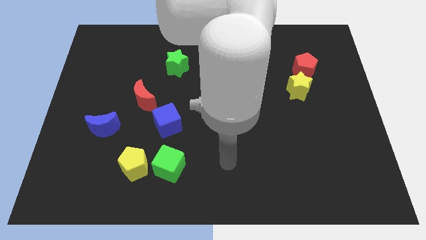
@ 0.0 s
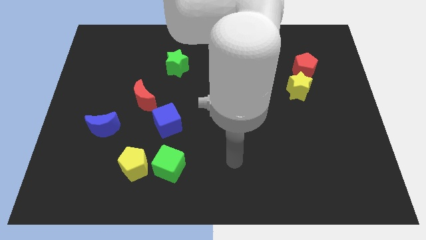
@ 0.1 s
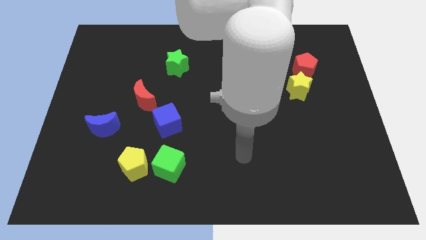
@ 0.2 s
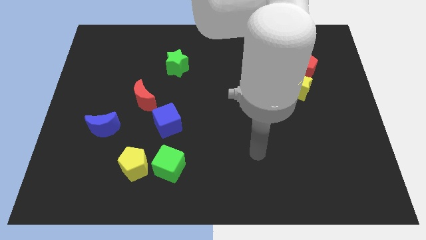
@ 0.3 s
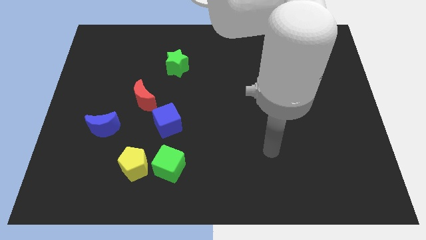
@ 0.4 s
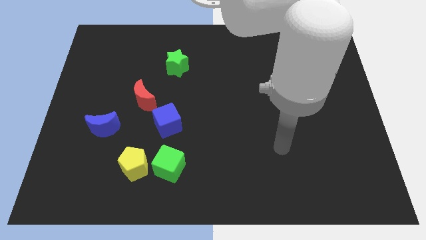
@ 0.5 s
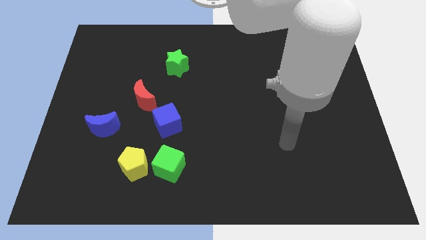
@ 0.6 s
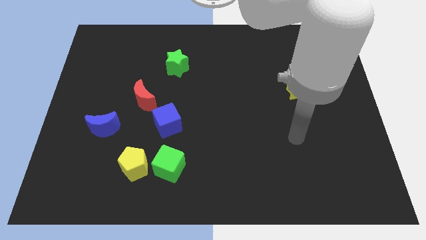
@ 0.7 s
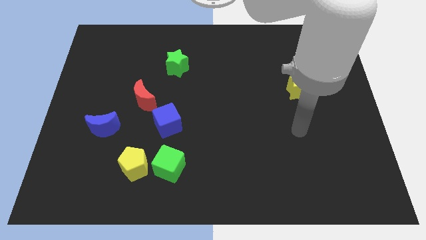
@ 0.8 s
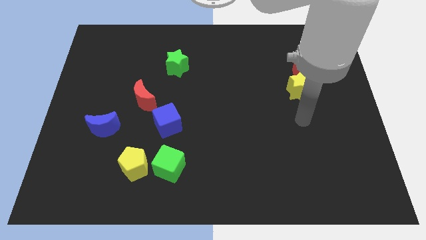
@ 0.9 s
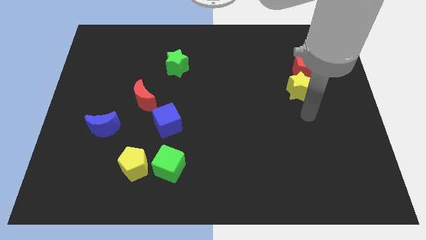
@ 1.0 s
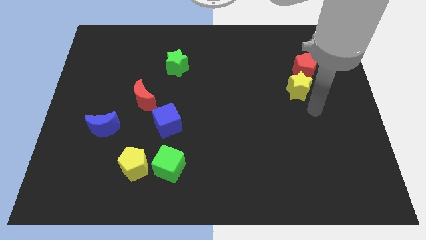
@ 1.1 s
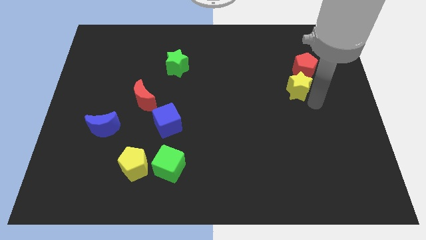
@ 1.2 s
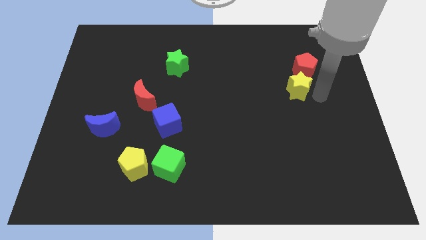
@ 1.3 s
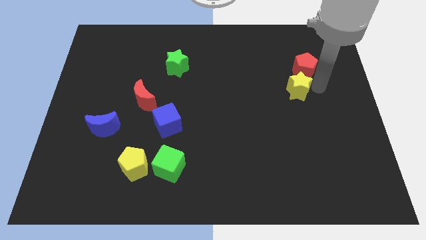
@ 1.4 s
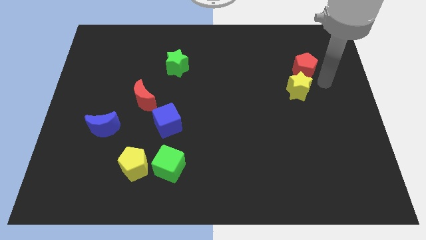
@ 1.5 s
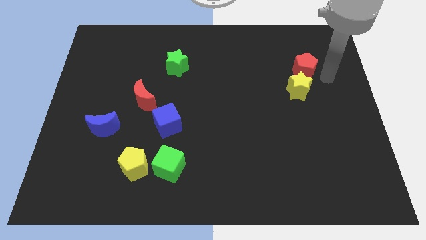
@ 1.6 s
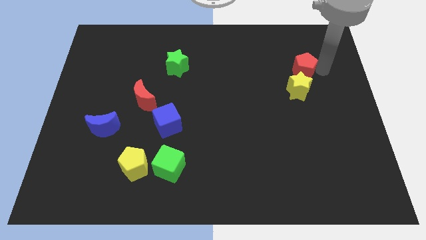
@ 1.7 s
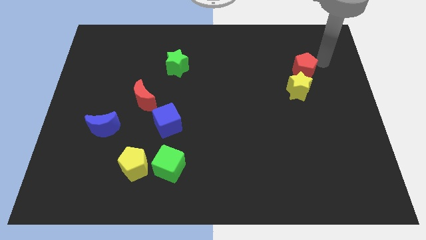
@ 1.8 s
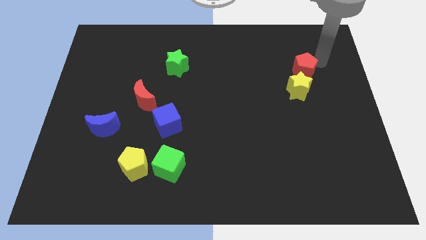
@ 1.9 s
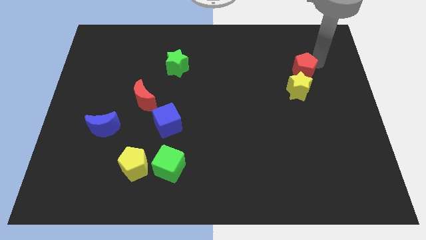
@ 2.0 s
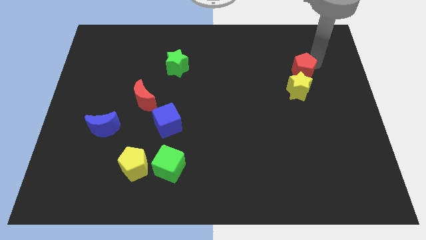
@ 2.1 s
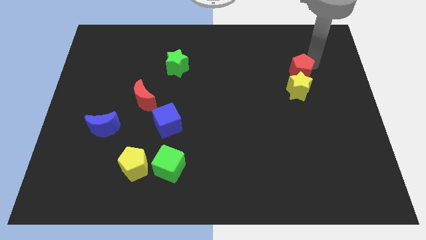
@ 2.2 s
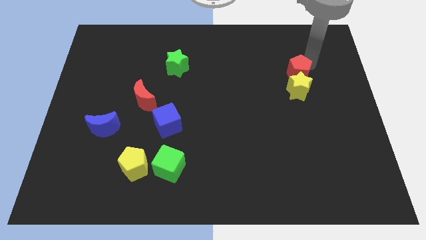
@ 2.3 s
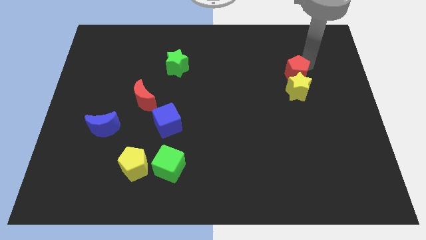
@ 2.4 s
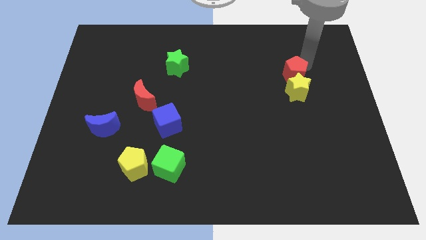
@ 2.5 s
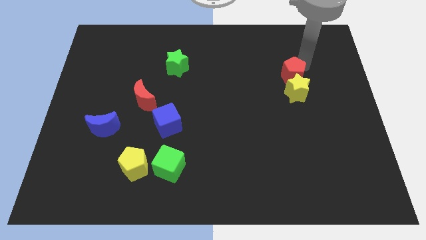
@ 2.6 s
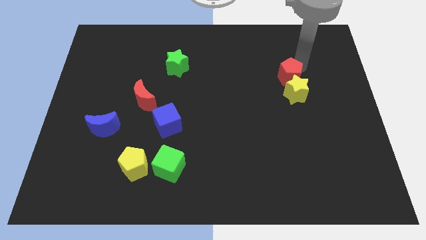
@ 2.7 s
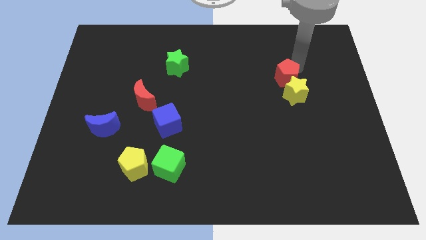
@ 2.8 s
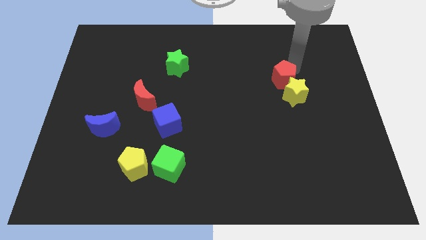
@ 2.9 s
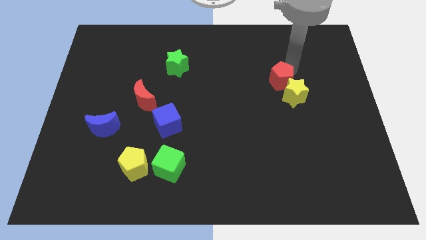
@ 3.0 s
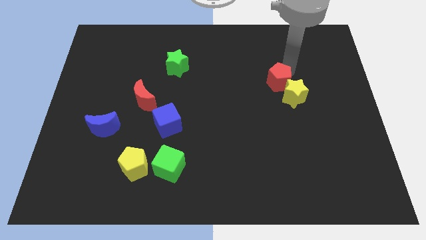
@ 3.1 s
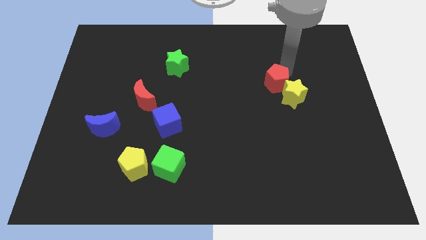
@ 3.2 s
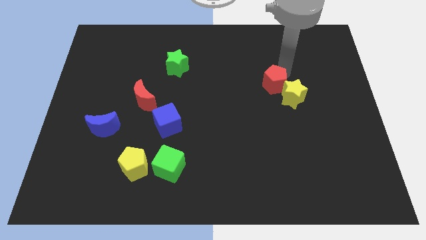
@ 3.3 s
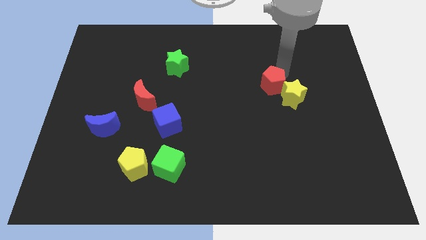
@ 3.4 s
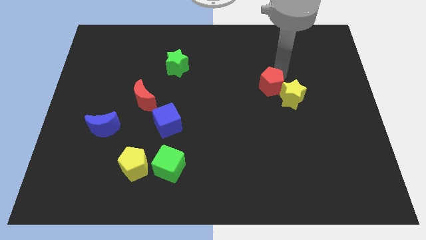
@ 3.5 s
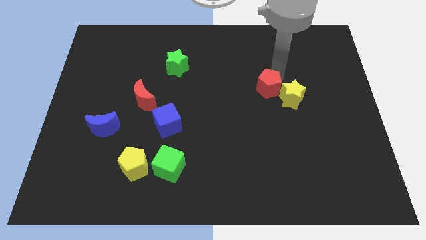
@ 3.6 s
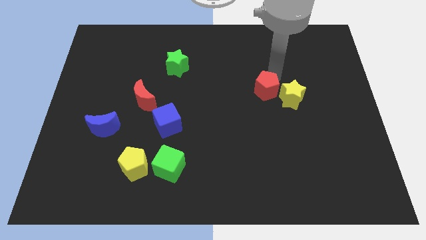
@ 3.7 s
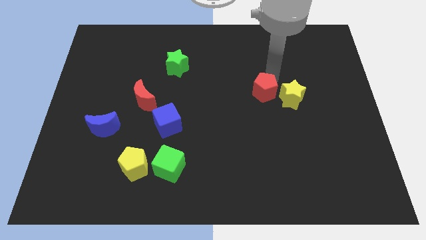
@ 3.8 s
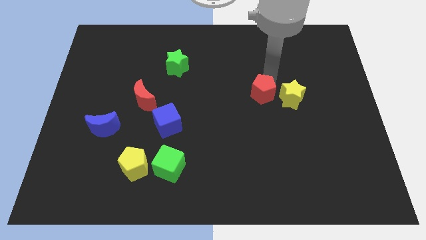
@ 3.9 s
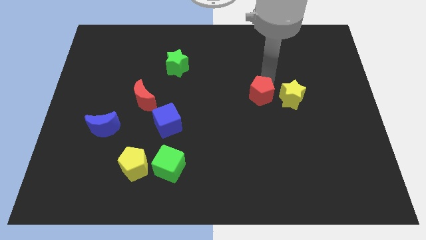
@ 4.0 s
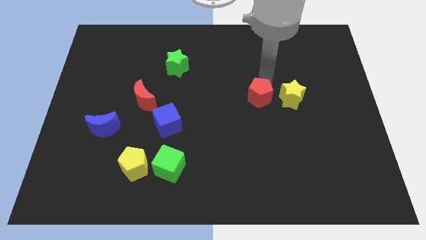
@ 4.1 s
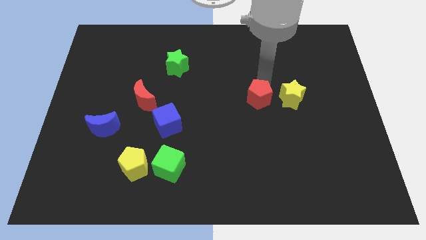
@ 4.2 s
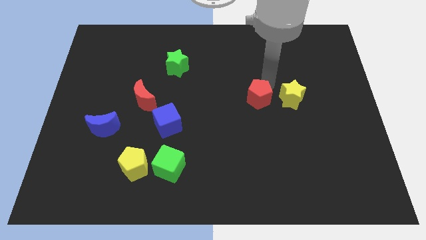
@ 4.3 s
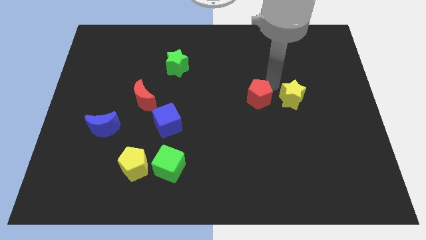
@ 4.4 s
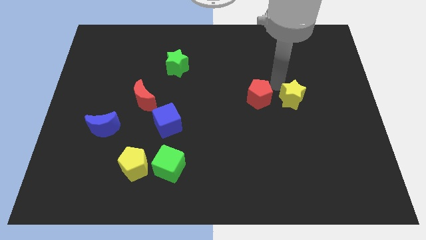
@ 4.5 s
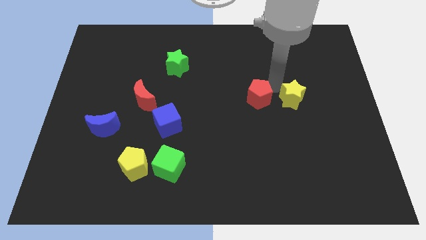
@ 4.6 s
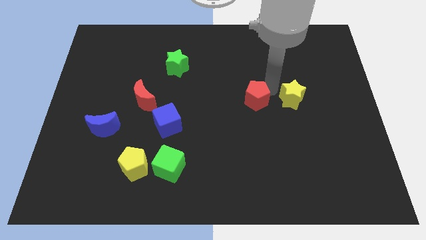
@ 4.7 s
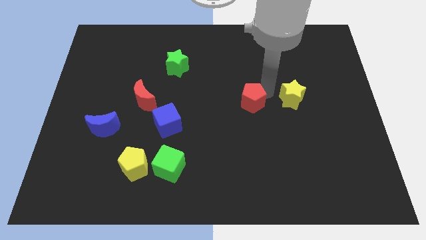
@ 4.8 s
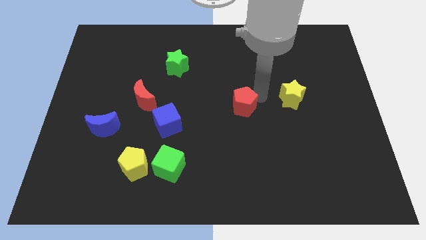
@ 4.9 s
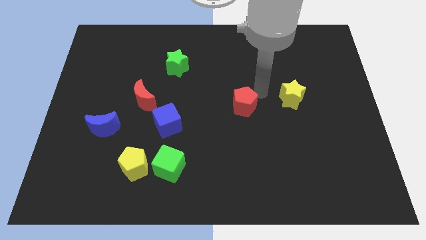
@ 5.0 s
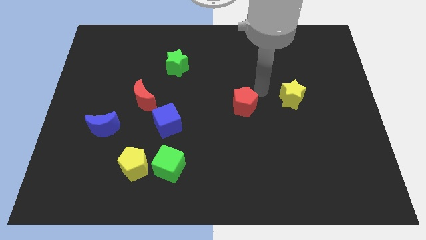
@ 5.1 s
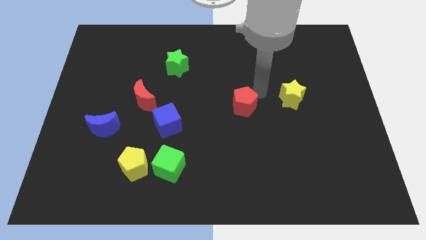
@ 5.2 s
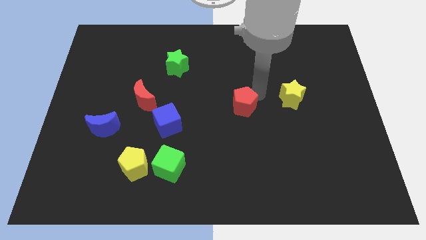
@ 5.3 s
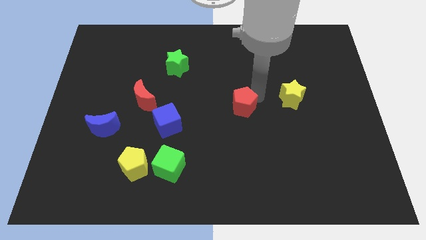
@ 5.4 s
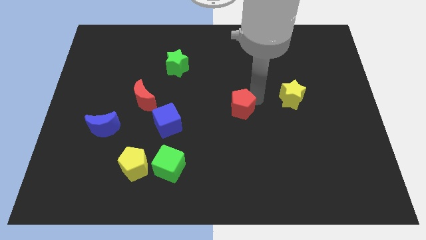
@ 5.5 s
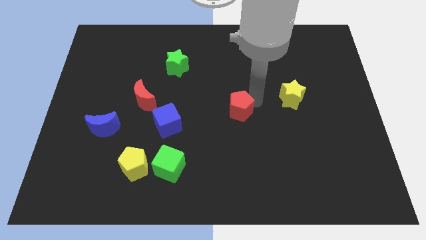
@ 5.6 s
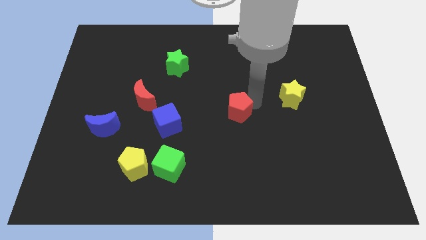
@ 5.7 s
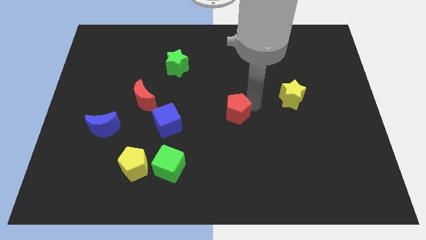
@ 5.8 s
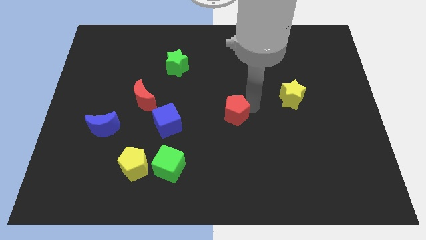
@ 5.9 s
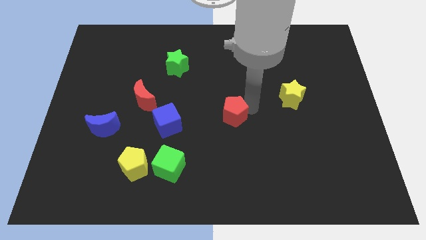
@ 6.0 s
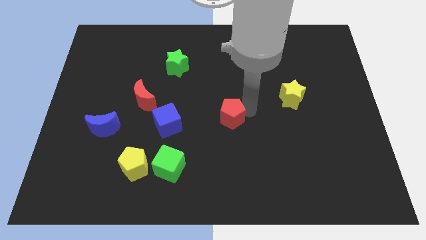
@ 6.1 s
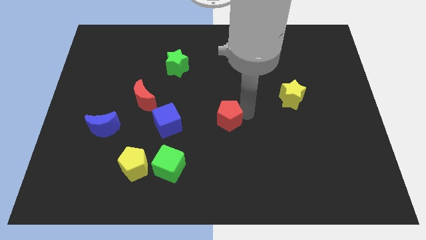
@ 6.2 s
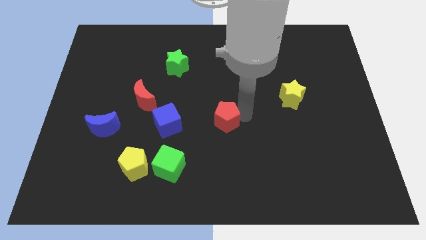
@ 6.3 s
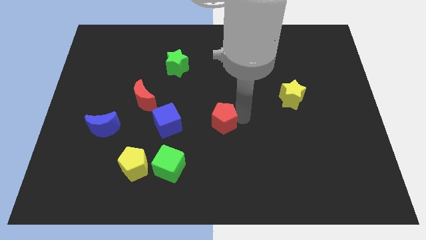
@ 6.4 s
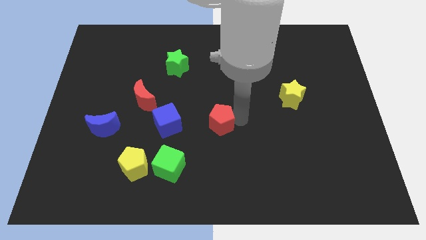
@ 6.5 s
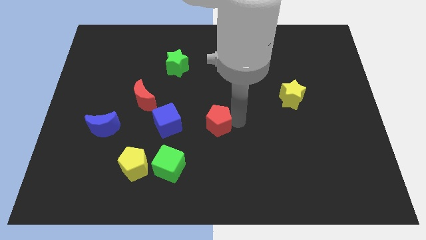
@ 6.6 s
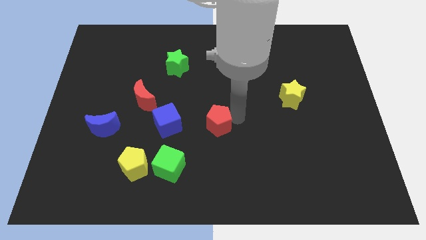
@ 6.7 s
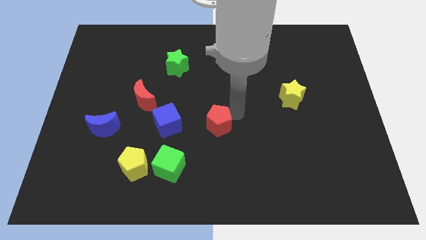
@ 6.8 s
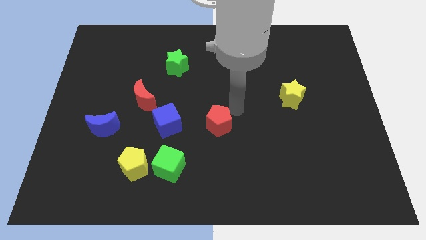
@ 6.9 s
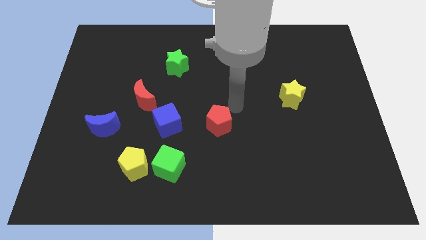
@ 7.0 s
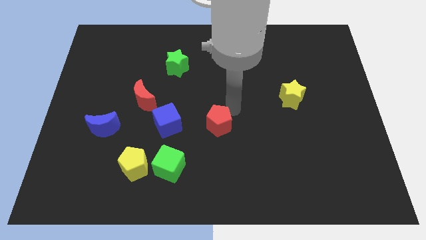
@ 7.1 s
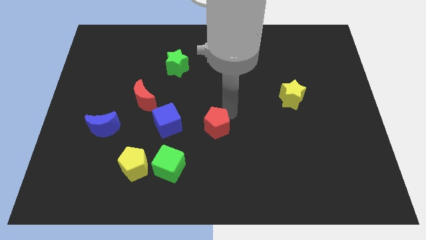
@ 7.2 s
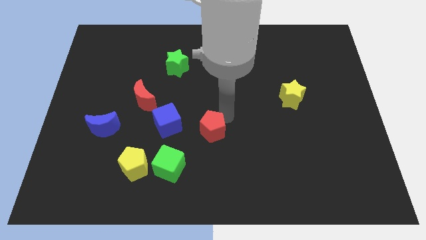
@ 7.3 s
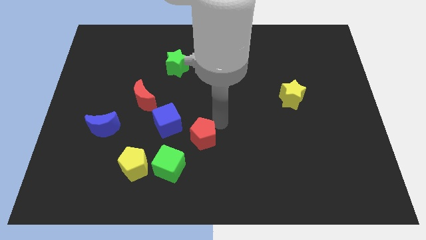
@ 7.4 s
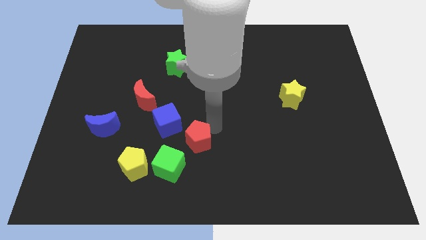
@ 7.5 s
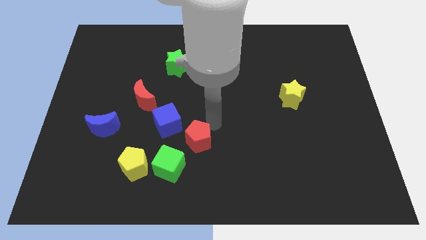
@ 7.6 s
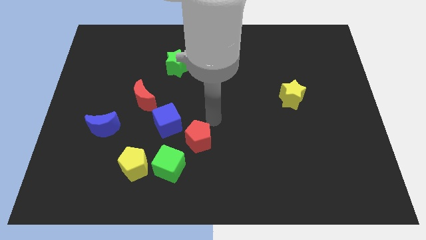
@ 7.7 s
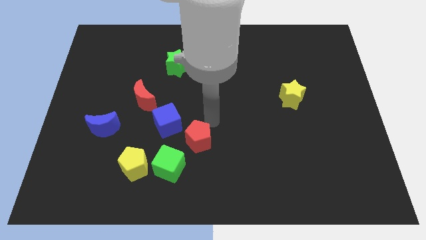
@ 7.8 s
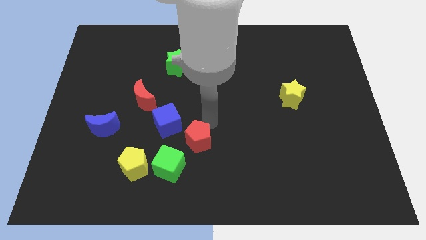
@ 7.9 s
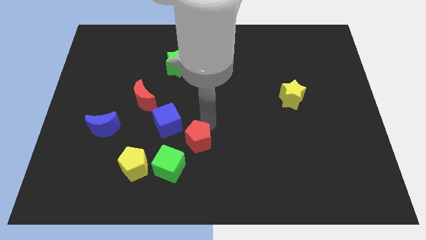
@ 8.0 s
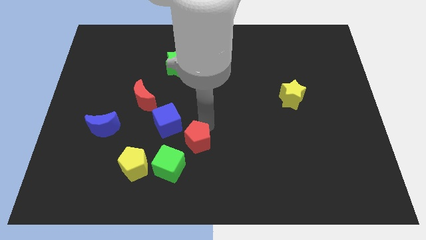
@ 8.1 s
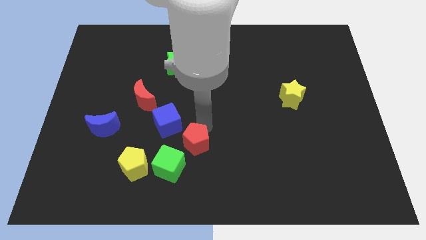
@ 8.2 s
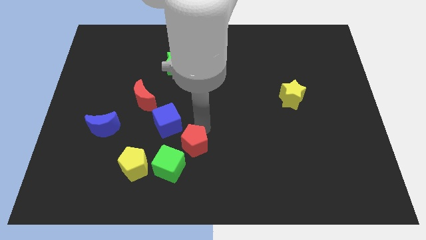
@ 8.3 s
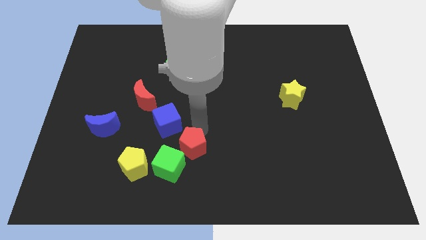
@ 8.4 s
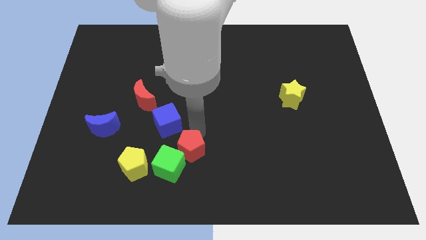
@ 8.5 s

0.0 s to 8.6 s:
slide the red pentagon towards the green cube
